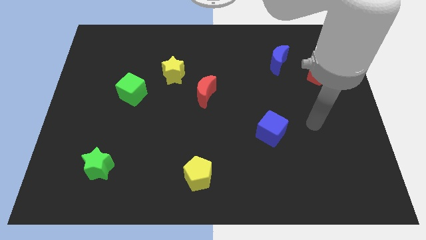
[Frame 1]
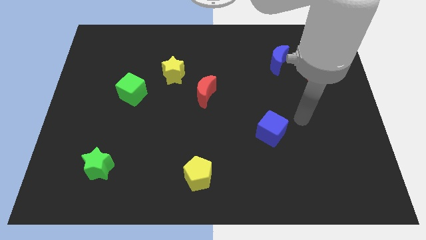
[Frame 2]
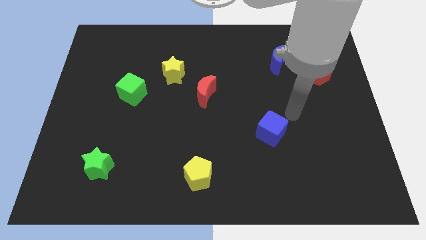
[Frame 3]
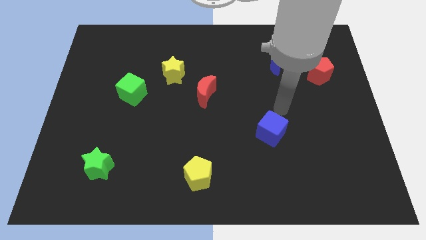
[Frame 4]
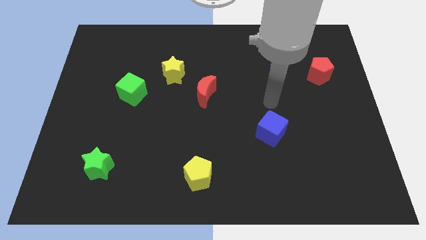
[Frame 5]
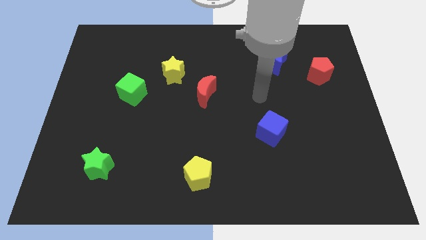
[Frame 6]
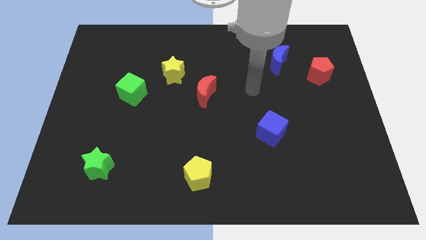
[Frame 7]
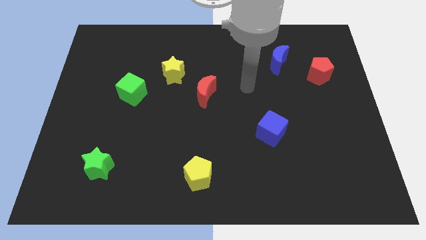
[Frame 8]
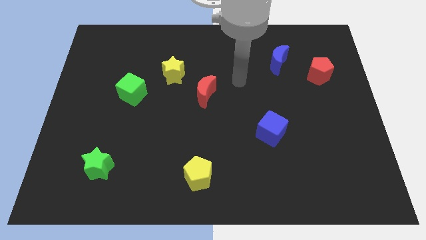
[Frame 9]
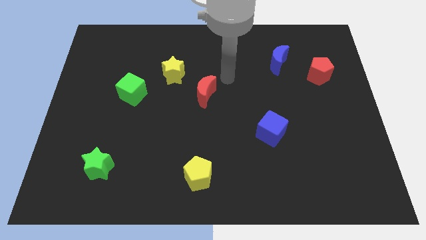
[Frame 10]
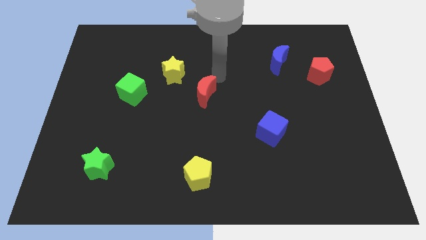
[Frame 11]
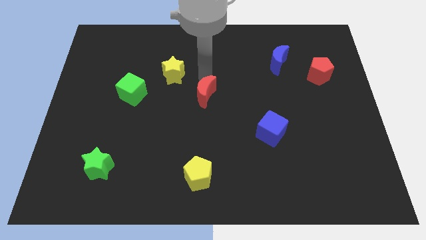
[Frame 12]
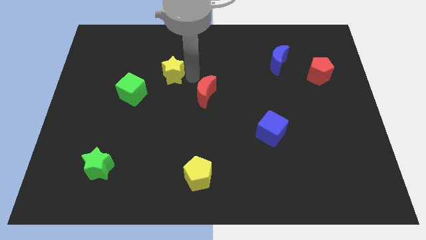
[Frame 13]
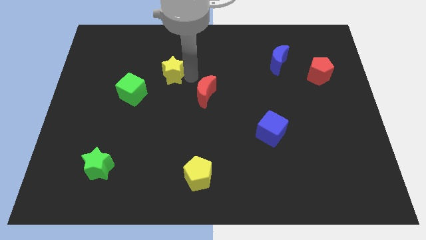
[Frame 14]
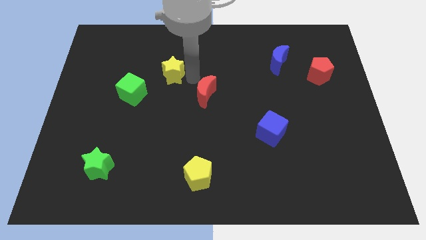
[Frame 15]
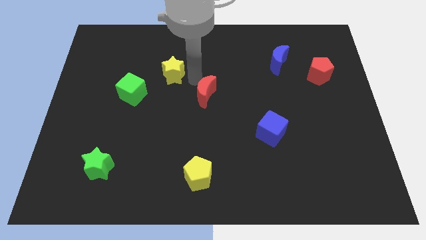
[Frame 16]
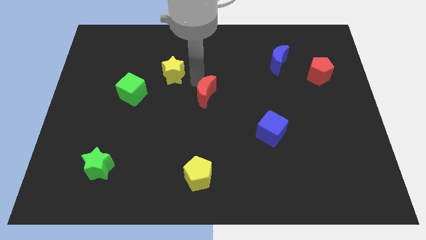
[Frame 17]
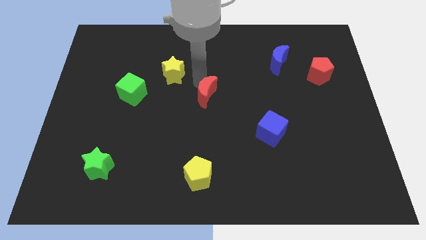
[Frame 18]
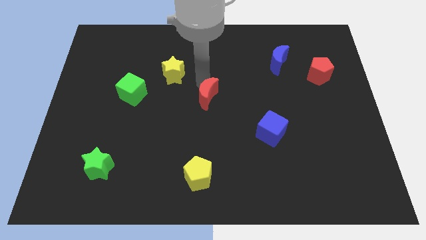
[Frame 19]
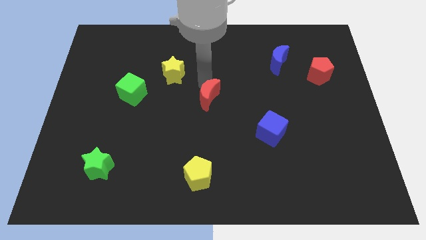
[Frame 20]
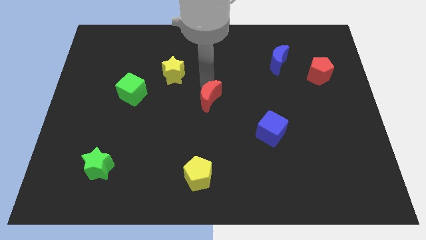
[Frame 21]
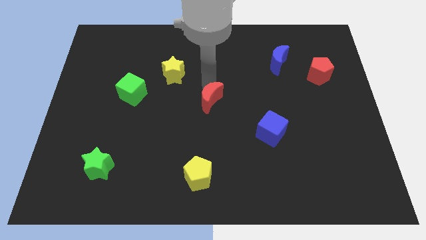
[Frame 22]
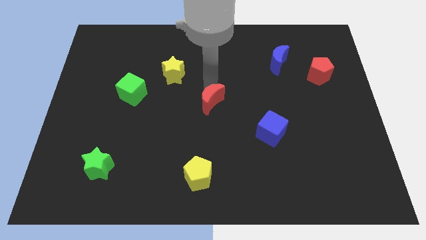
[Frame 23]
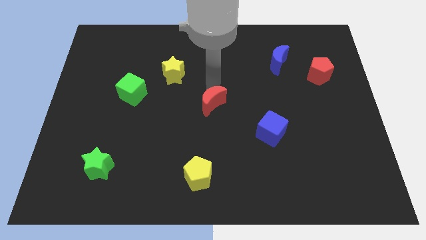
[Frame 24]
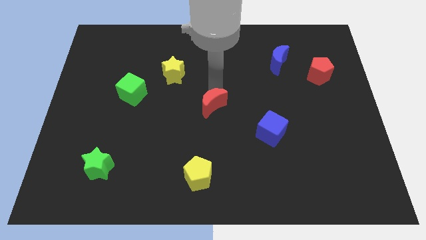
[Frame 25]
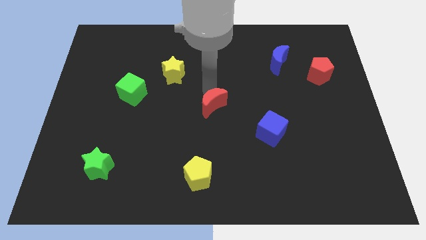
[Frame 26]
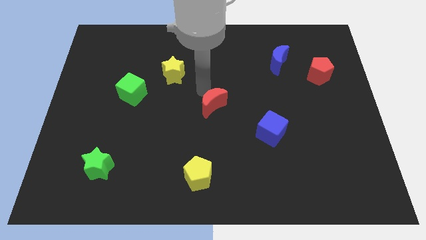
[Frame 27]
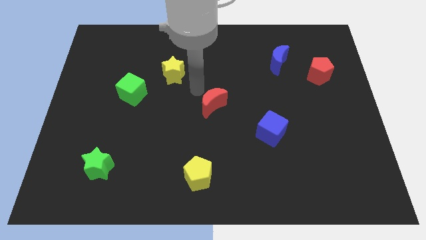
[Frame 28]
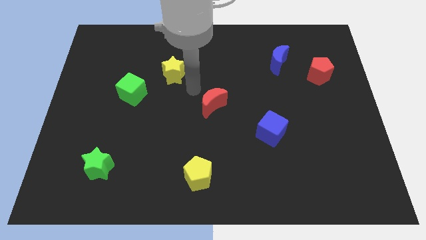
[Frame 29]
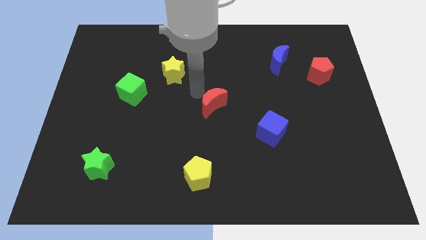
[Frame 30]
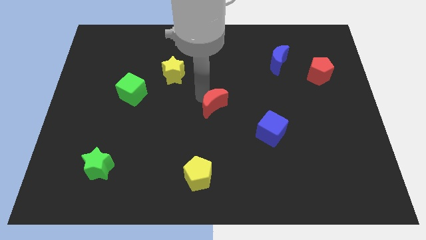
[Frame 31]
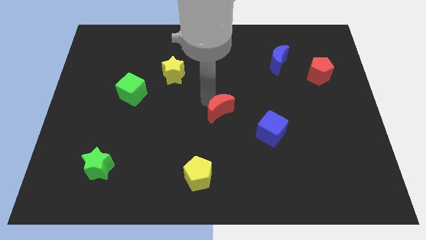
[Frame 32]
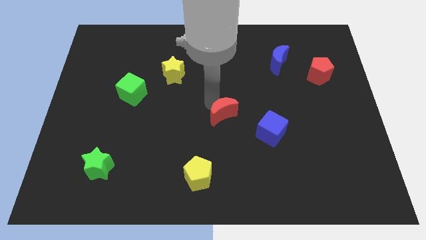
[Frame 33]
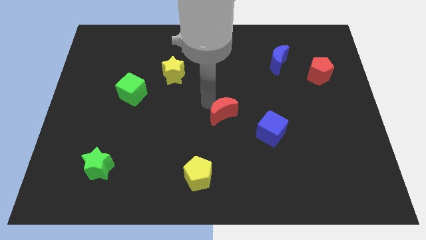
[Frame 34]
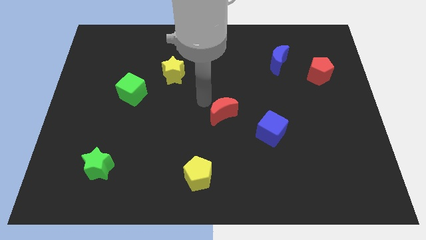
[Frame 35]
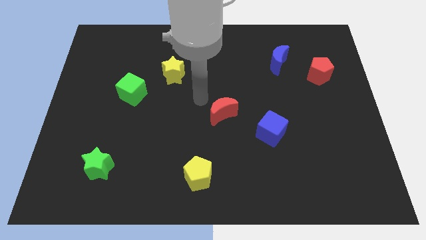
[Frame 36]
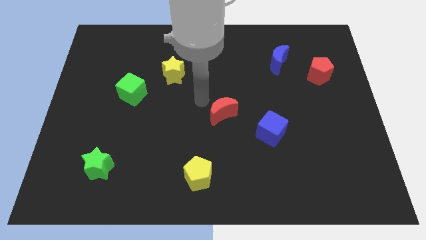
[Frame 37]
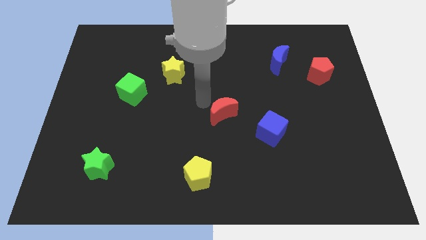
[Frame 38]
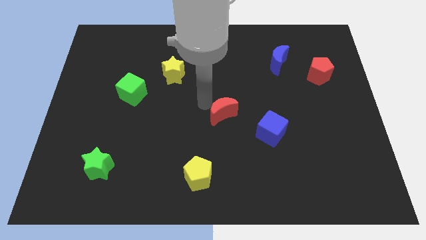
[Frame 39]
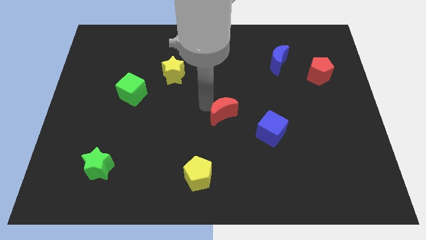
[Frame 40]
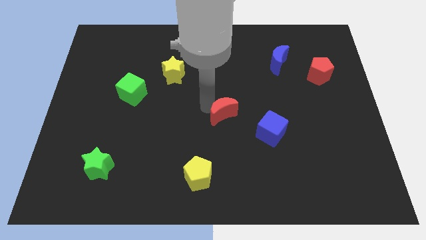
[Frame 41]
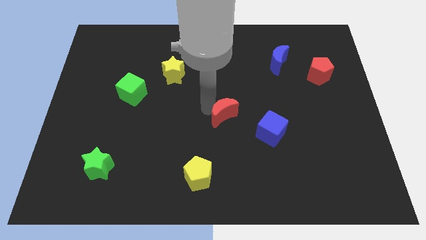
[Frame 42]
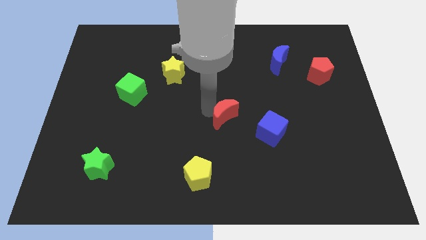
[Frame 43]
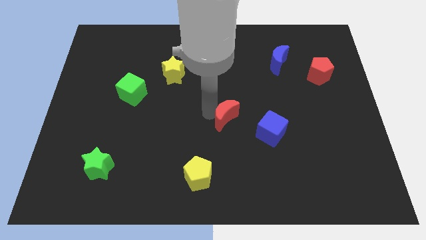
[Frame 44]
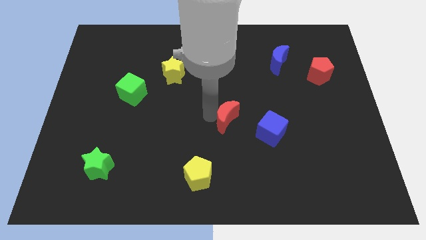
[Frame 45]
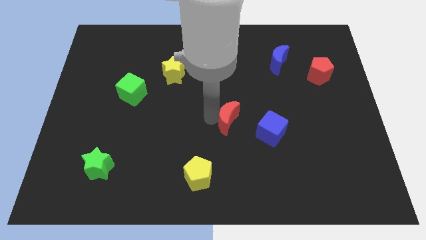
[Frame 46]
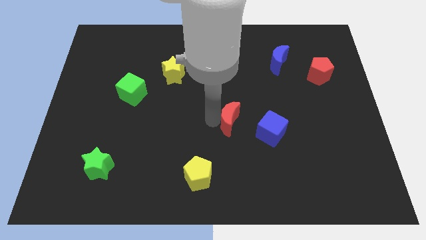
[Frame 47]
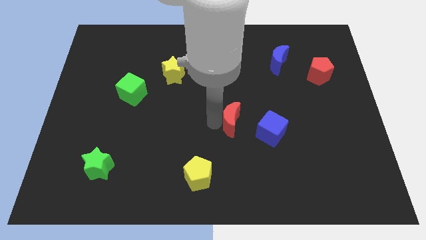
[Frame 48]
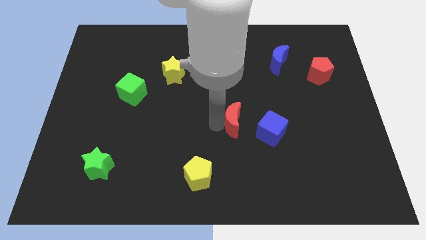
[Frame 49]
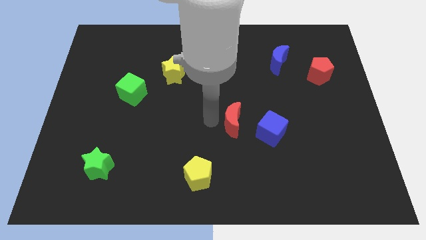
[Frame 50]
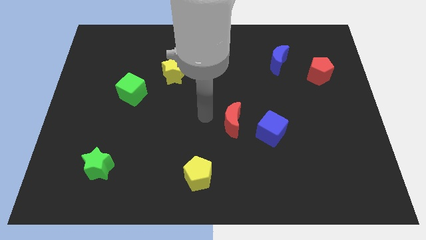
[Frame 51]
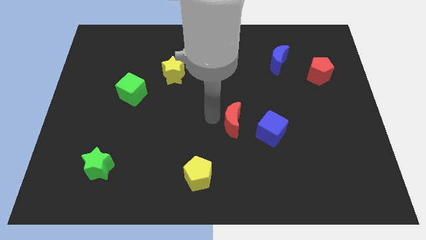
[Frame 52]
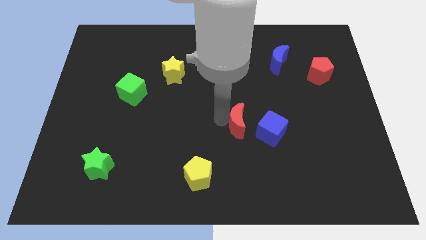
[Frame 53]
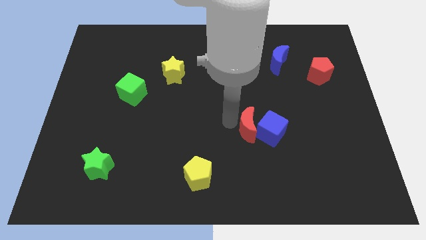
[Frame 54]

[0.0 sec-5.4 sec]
move the red moon to the blue cube
